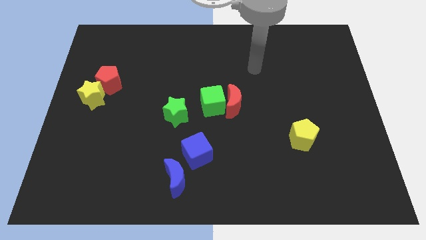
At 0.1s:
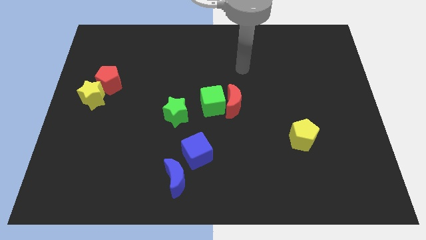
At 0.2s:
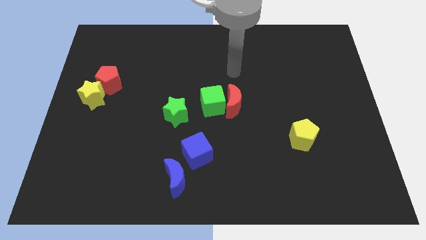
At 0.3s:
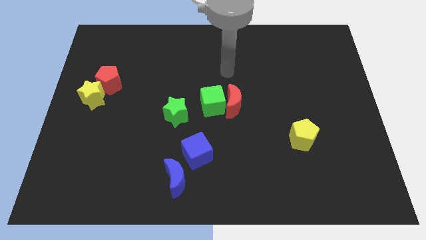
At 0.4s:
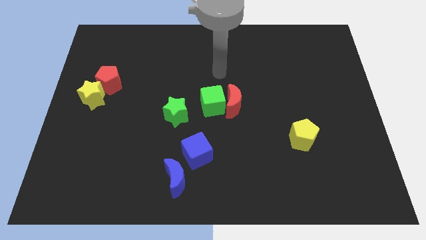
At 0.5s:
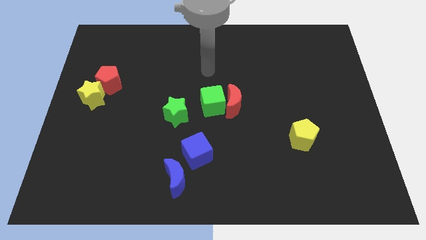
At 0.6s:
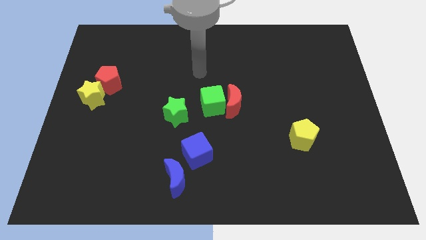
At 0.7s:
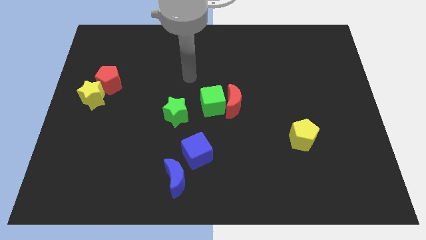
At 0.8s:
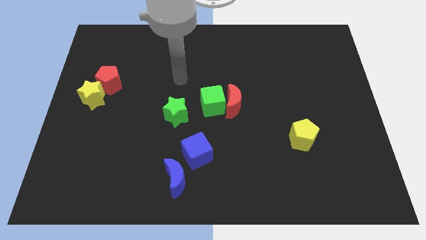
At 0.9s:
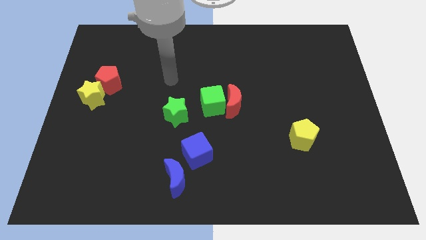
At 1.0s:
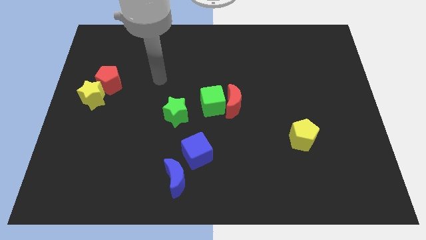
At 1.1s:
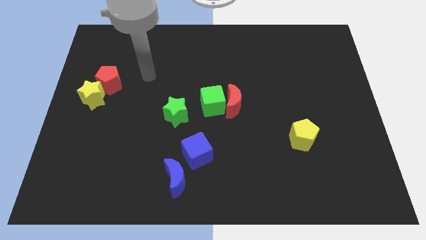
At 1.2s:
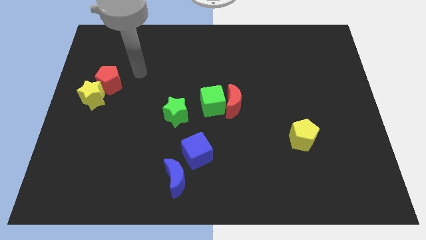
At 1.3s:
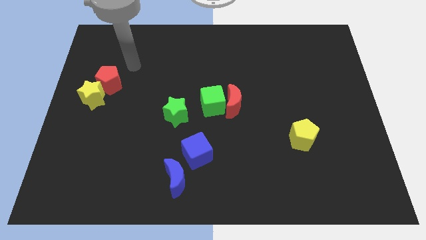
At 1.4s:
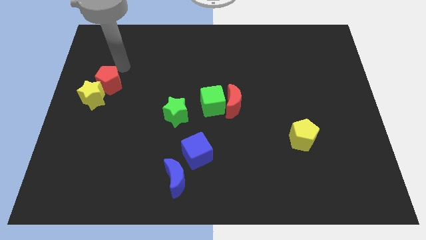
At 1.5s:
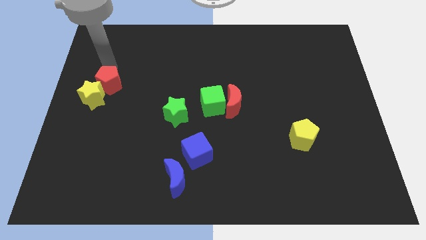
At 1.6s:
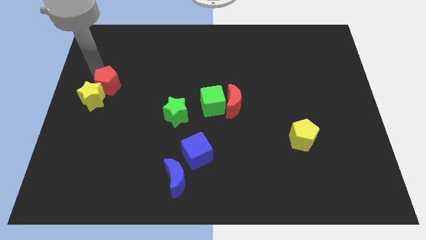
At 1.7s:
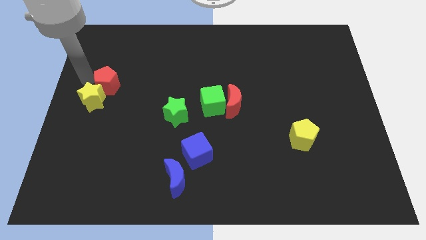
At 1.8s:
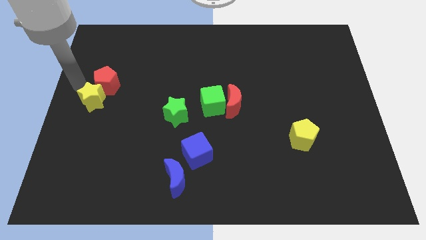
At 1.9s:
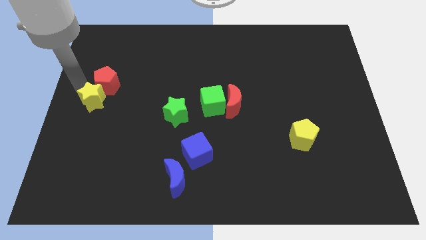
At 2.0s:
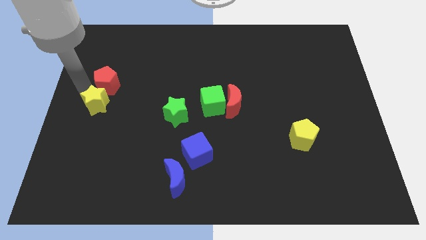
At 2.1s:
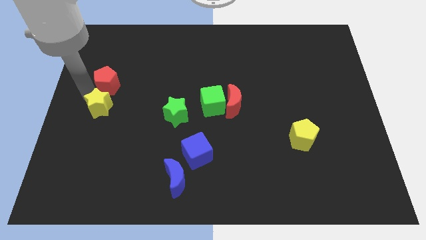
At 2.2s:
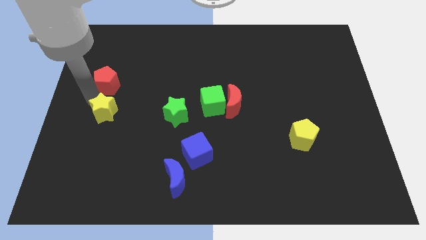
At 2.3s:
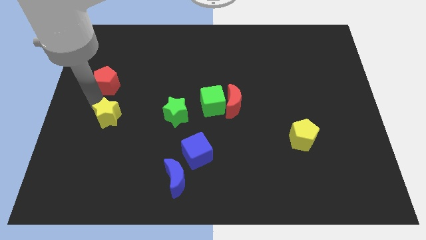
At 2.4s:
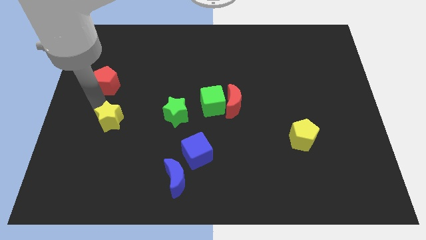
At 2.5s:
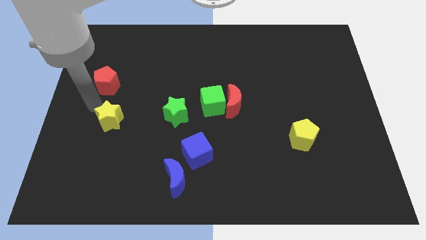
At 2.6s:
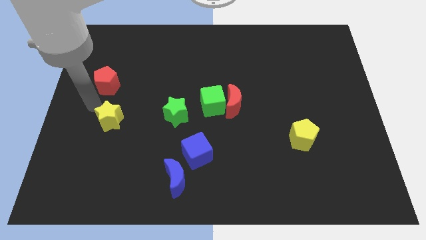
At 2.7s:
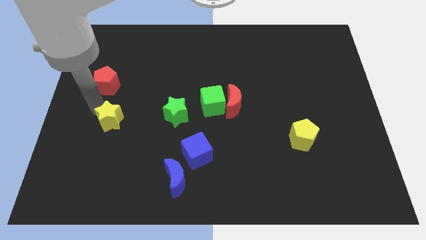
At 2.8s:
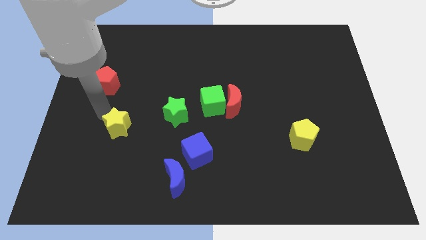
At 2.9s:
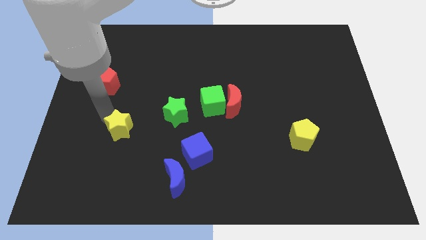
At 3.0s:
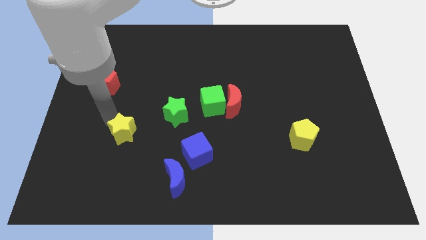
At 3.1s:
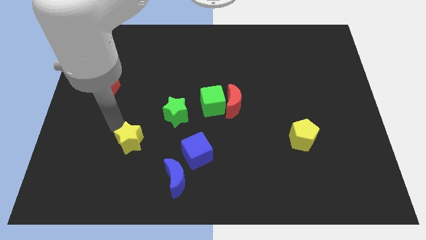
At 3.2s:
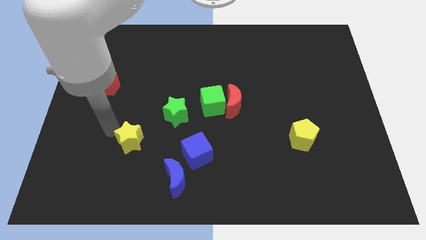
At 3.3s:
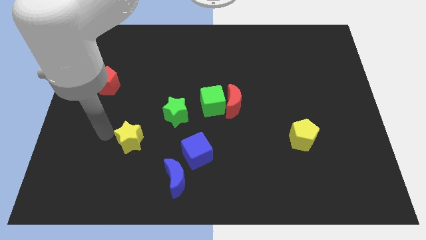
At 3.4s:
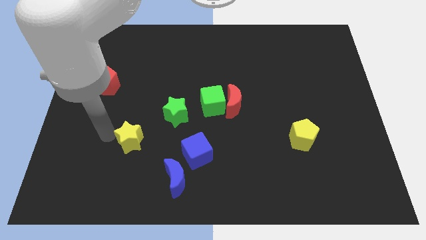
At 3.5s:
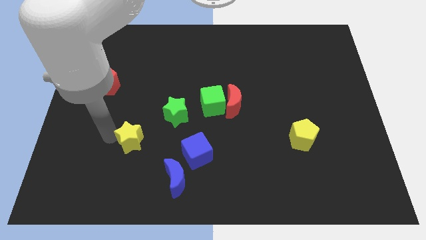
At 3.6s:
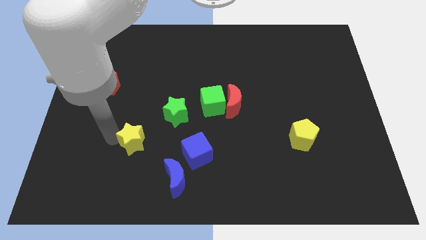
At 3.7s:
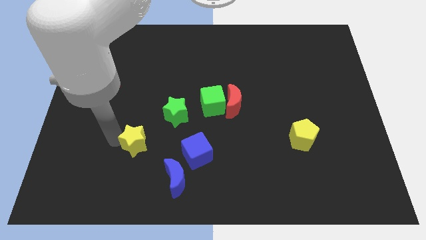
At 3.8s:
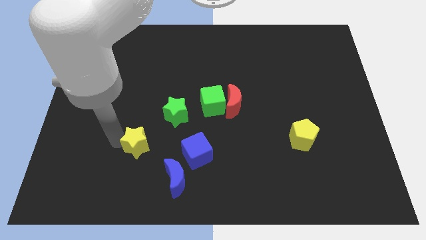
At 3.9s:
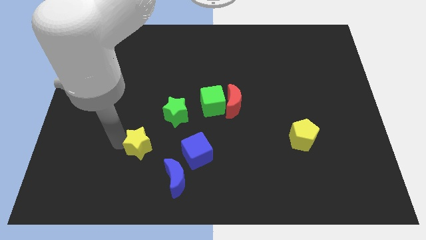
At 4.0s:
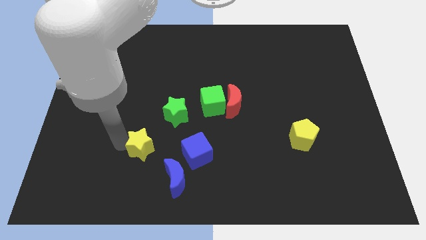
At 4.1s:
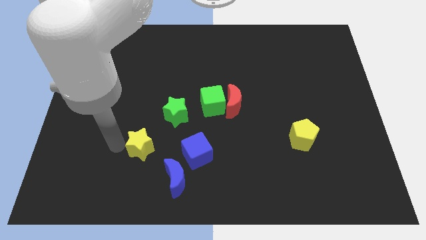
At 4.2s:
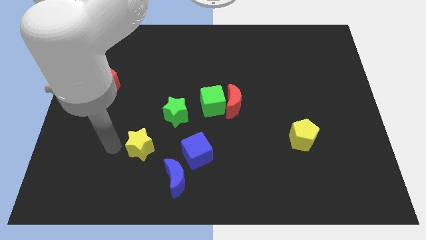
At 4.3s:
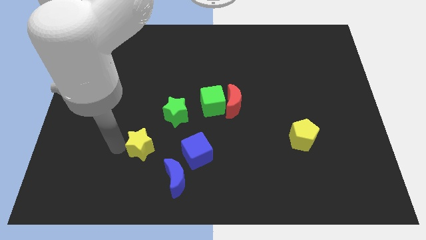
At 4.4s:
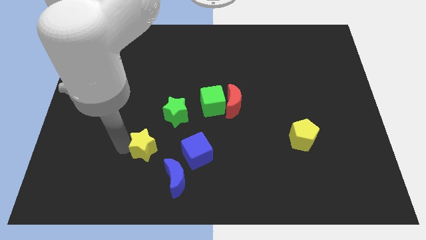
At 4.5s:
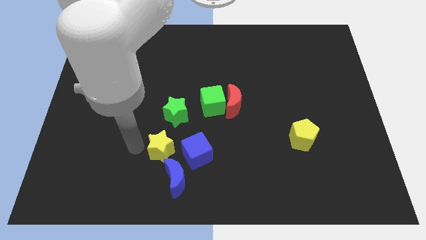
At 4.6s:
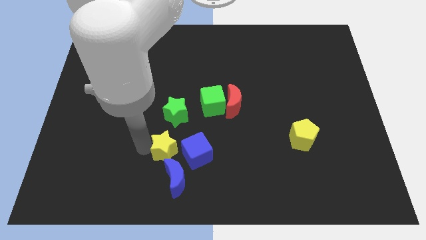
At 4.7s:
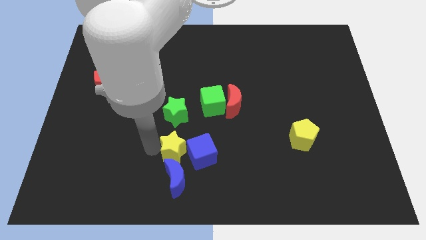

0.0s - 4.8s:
push the yellow star towards the blue cube

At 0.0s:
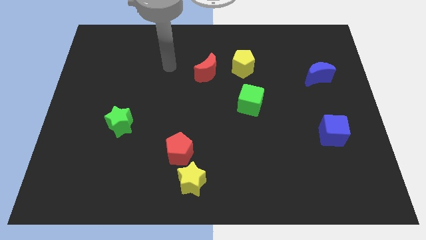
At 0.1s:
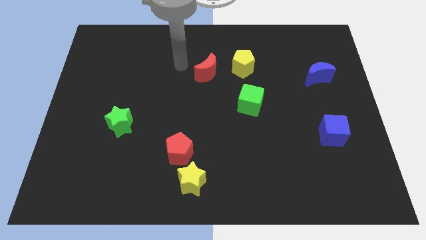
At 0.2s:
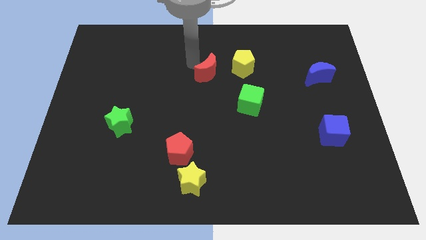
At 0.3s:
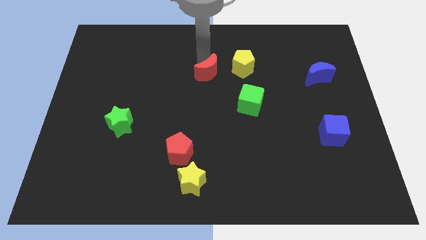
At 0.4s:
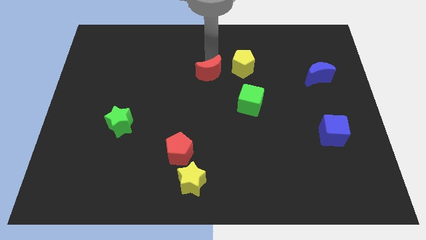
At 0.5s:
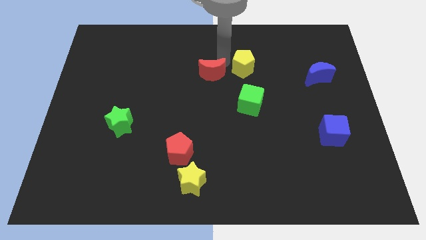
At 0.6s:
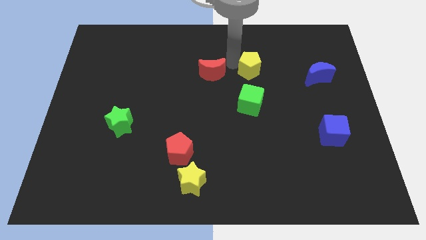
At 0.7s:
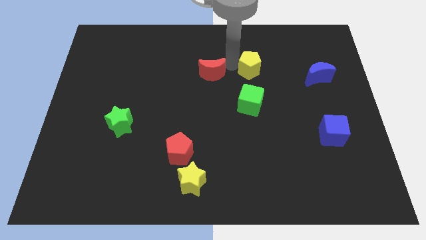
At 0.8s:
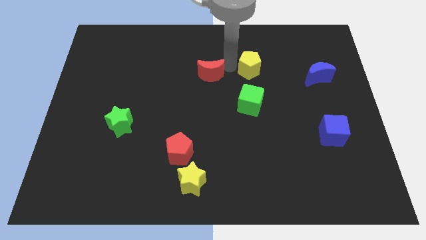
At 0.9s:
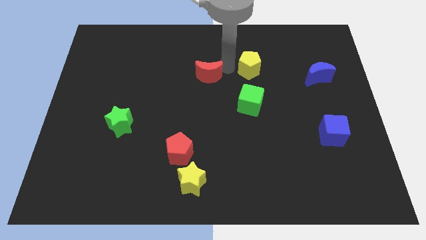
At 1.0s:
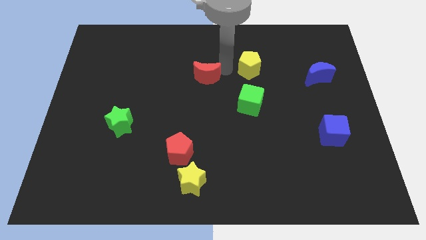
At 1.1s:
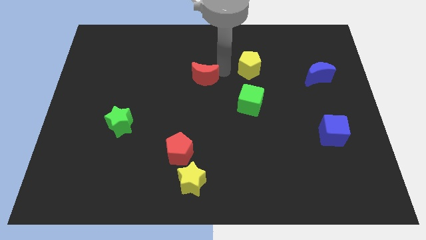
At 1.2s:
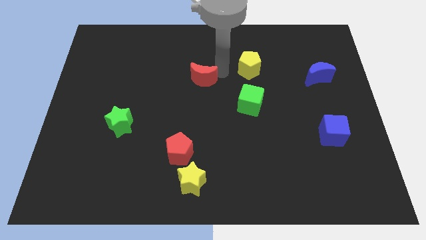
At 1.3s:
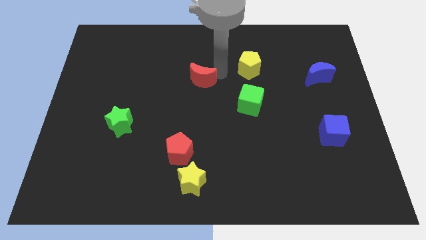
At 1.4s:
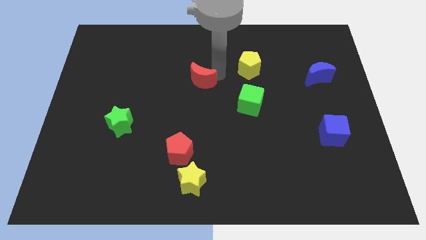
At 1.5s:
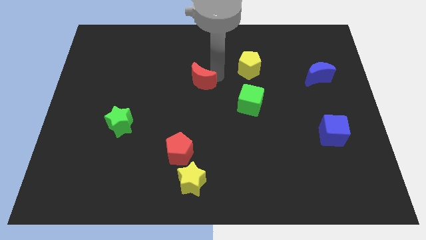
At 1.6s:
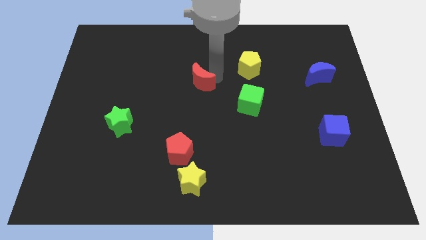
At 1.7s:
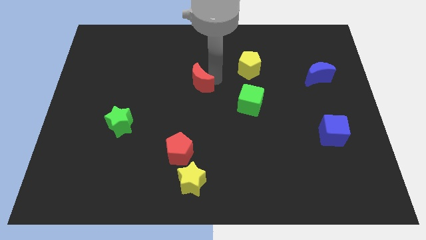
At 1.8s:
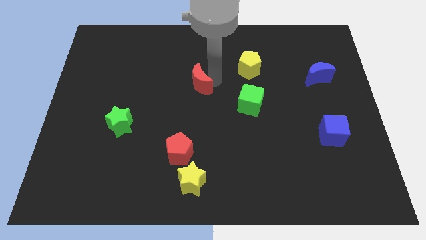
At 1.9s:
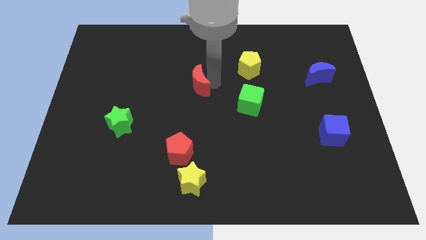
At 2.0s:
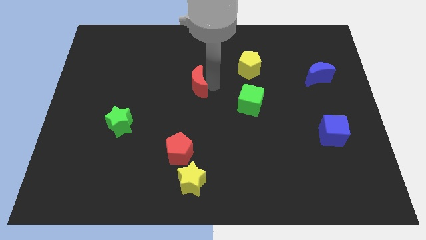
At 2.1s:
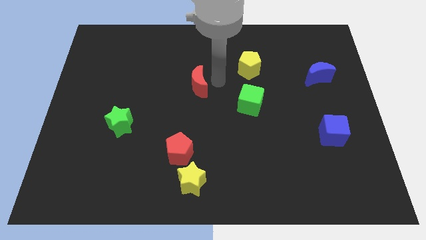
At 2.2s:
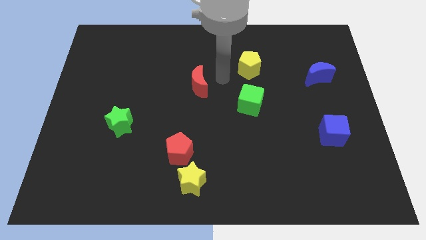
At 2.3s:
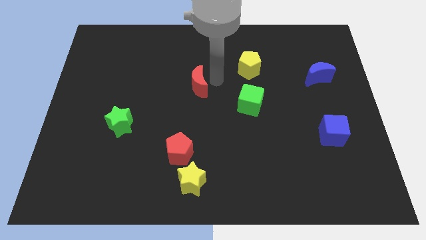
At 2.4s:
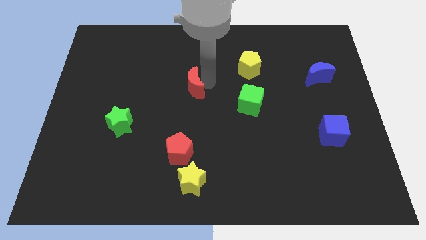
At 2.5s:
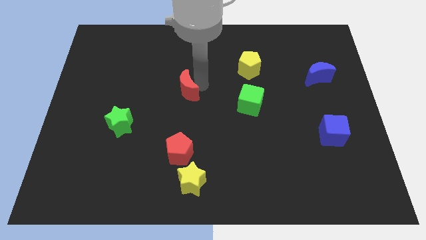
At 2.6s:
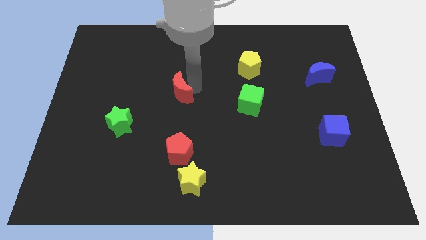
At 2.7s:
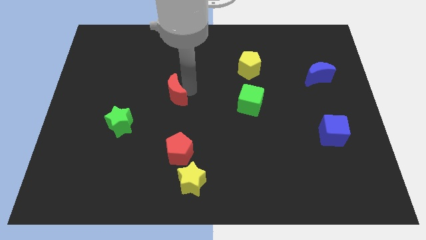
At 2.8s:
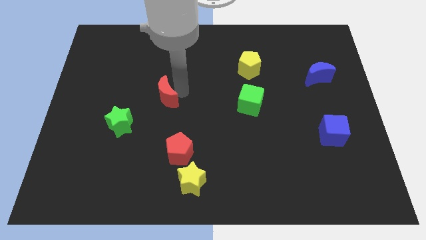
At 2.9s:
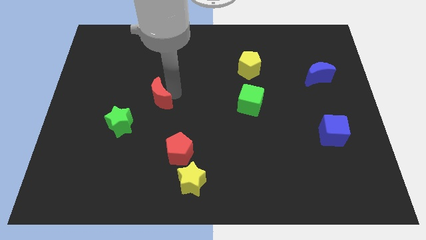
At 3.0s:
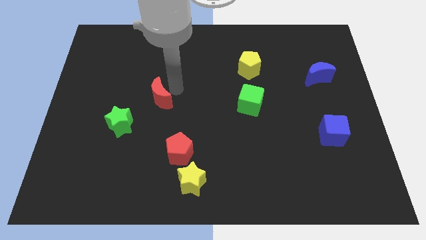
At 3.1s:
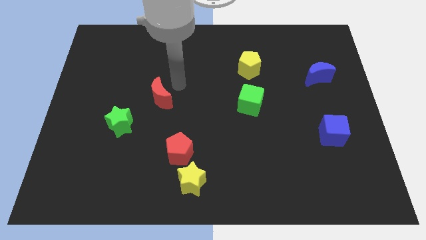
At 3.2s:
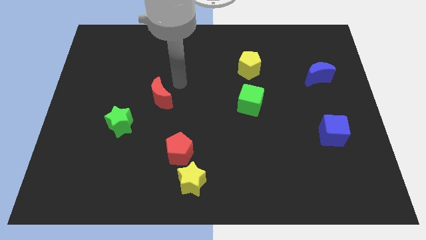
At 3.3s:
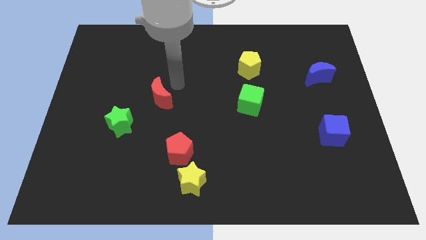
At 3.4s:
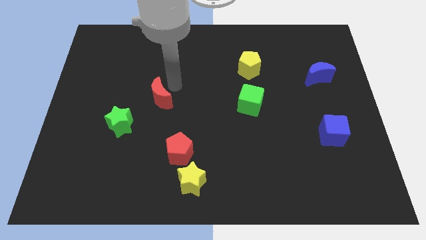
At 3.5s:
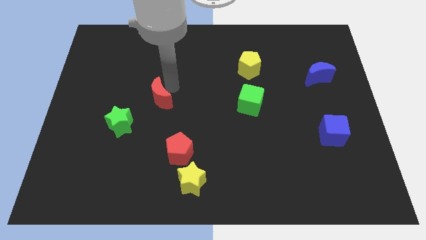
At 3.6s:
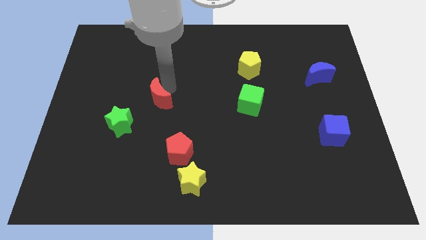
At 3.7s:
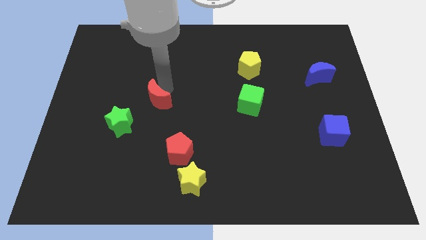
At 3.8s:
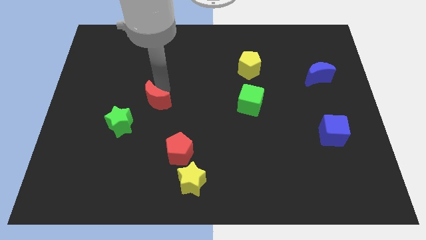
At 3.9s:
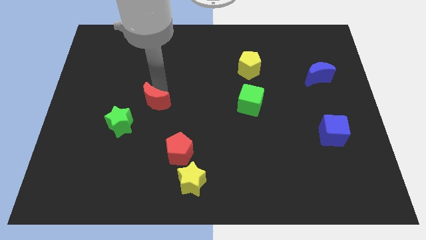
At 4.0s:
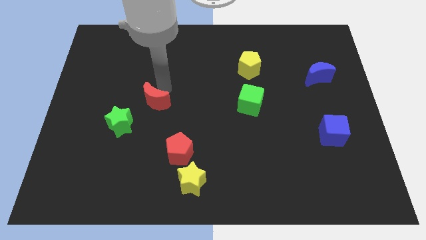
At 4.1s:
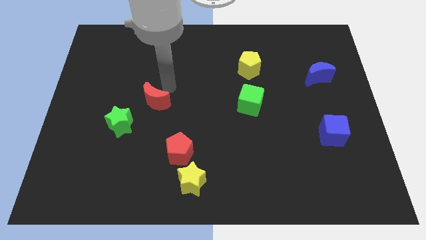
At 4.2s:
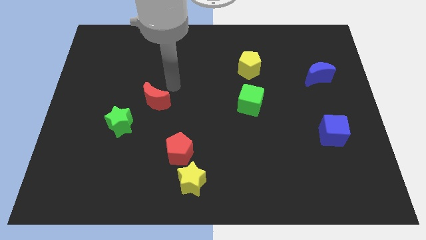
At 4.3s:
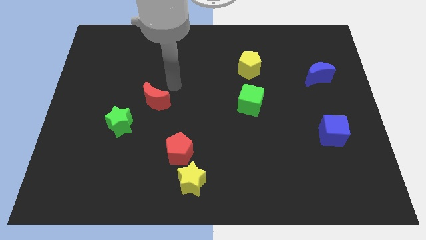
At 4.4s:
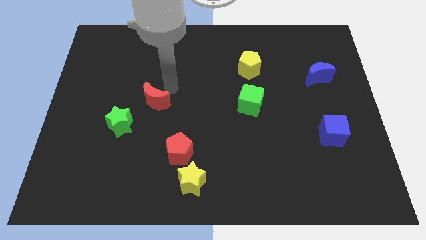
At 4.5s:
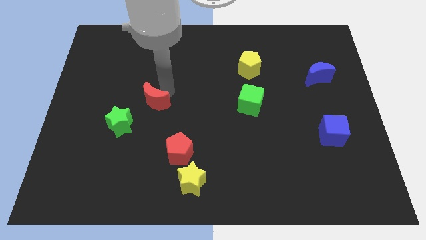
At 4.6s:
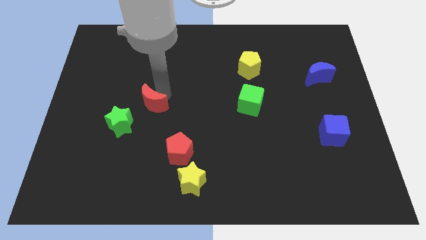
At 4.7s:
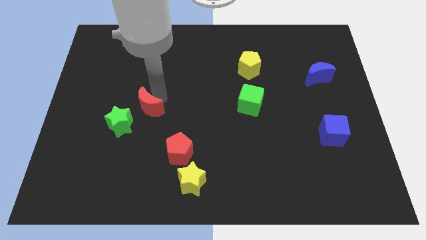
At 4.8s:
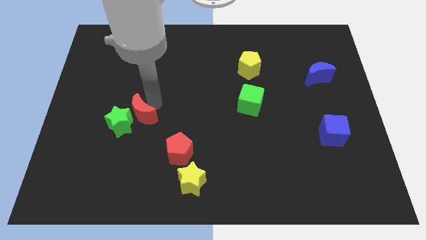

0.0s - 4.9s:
move the red moon to the green star
